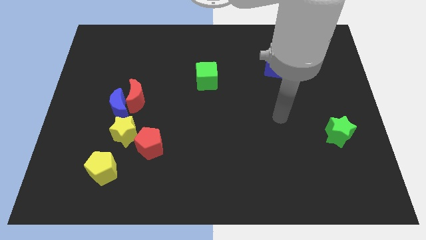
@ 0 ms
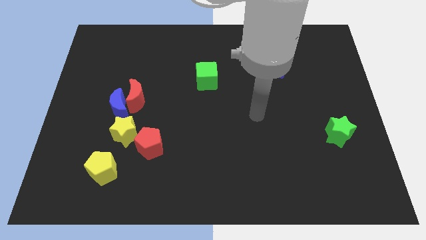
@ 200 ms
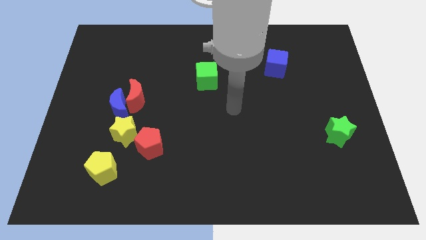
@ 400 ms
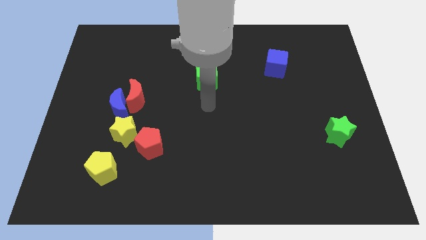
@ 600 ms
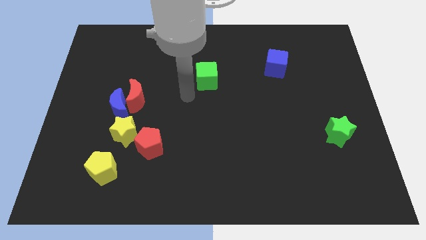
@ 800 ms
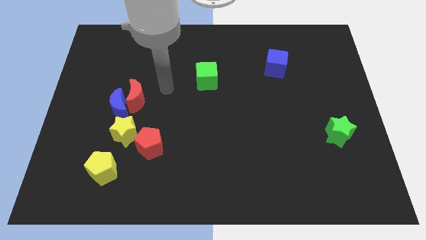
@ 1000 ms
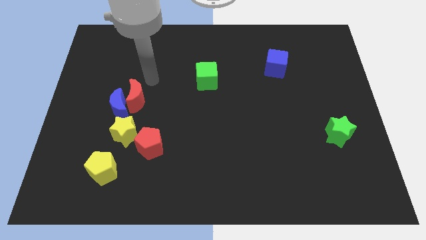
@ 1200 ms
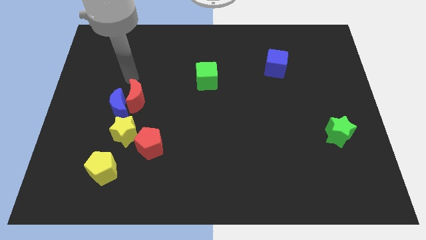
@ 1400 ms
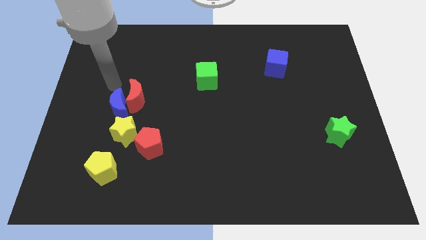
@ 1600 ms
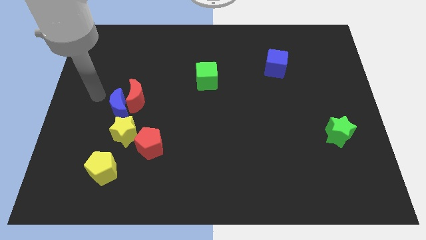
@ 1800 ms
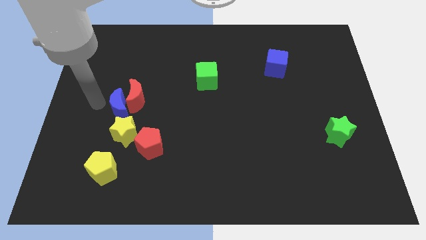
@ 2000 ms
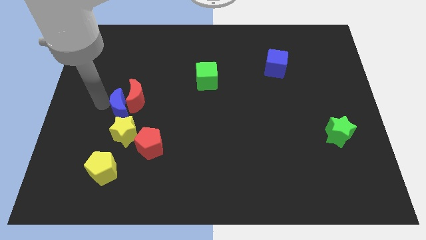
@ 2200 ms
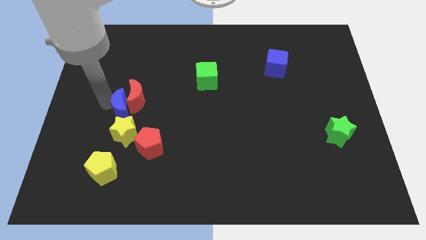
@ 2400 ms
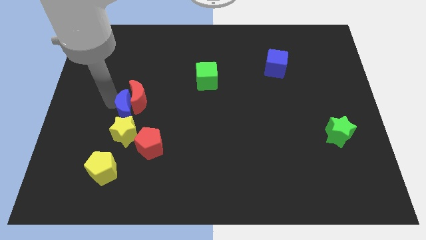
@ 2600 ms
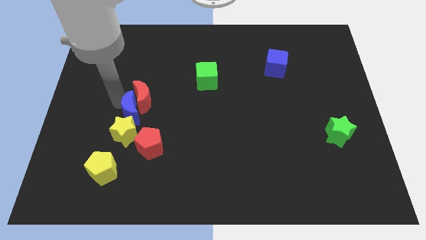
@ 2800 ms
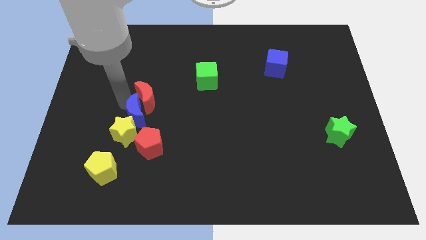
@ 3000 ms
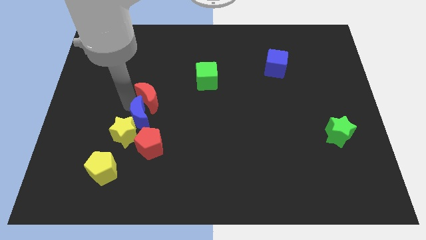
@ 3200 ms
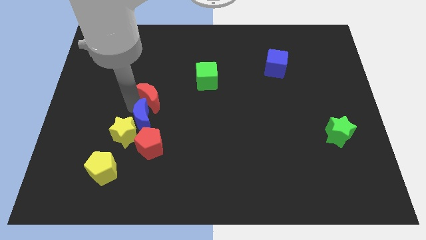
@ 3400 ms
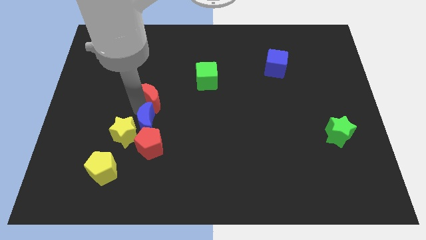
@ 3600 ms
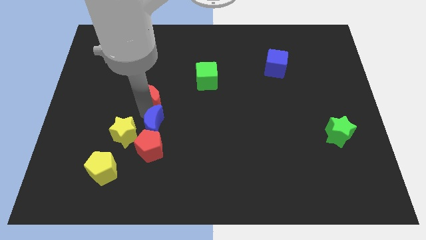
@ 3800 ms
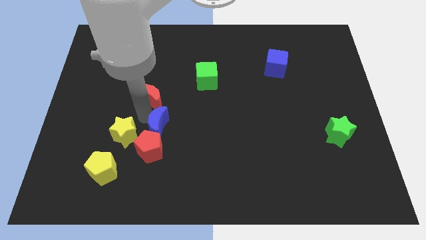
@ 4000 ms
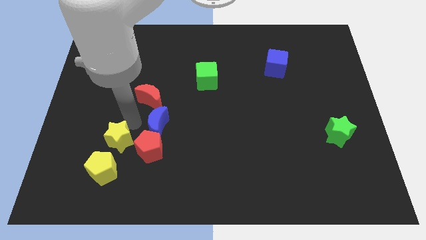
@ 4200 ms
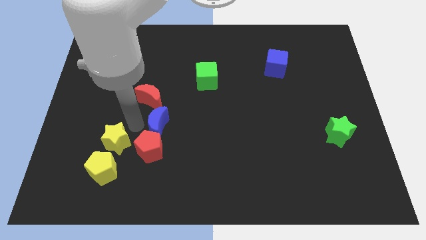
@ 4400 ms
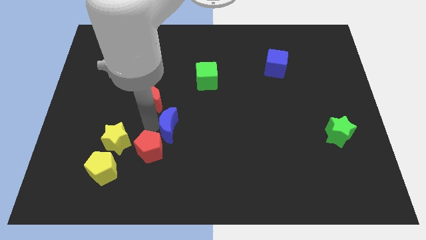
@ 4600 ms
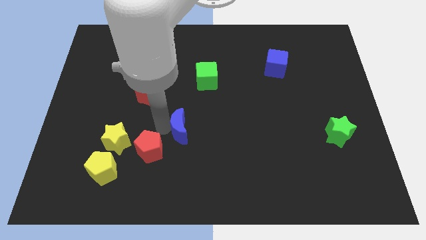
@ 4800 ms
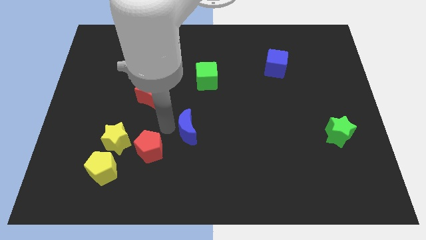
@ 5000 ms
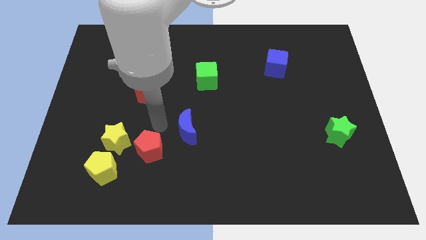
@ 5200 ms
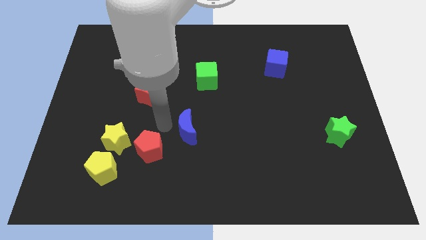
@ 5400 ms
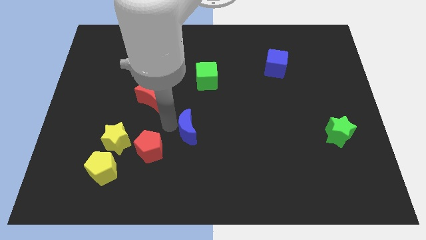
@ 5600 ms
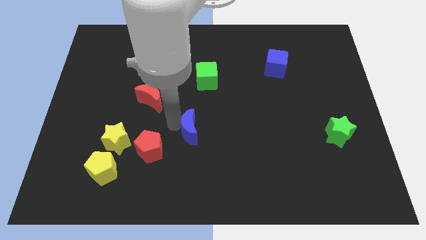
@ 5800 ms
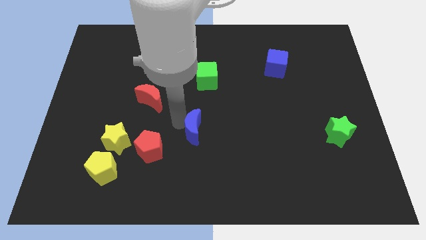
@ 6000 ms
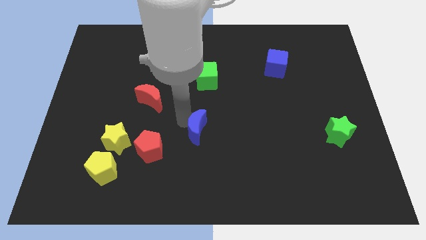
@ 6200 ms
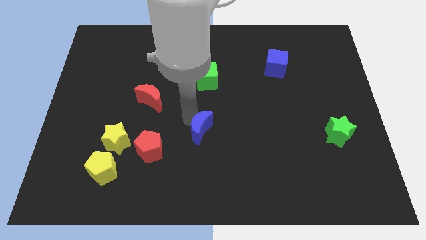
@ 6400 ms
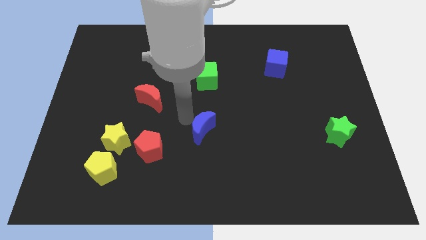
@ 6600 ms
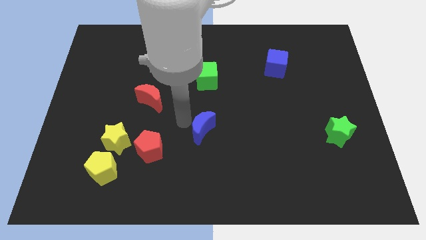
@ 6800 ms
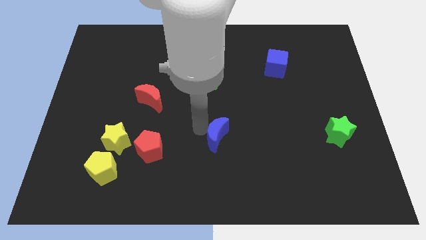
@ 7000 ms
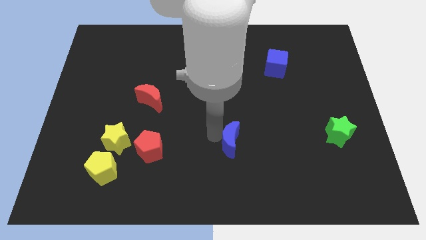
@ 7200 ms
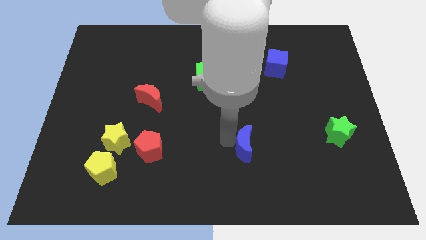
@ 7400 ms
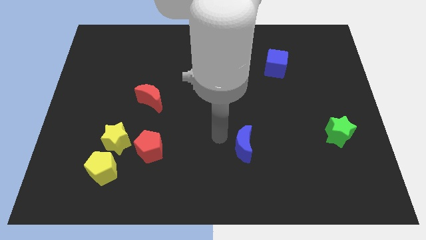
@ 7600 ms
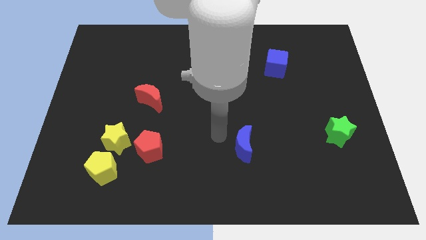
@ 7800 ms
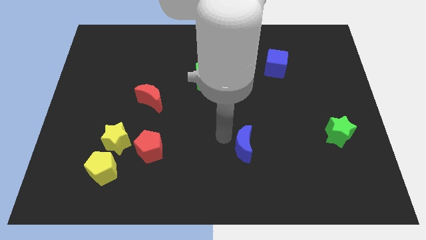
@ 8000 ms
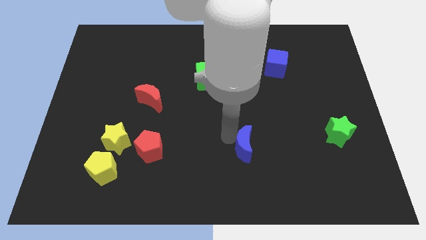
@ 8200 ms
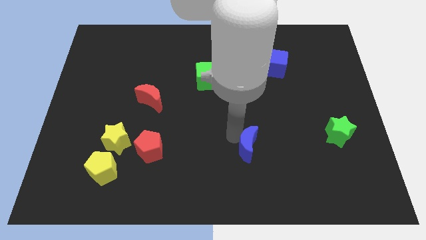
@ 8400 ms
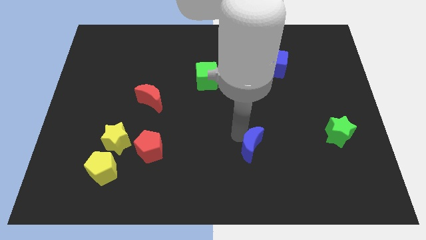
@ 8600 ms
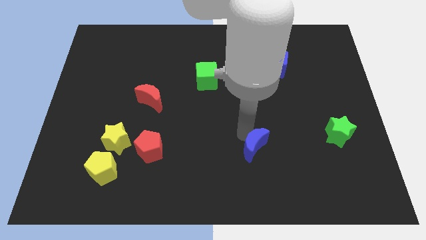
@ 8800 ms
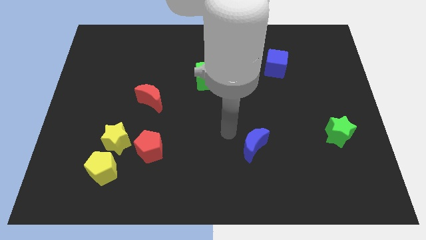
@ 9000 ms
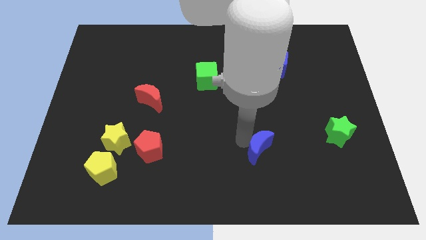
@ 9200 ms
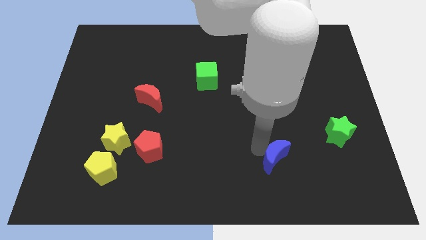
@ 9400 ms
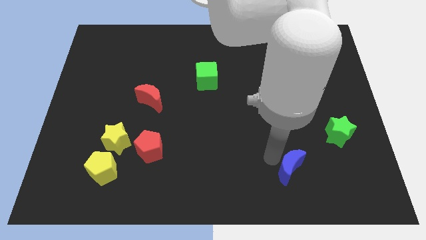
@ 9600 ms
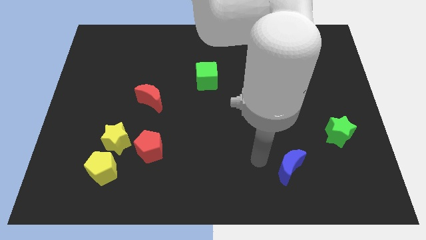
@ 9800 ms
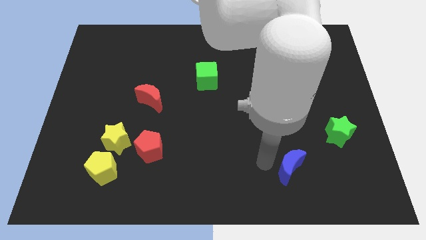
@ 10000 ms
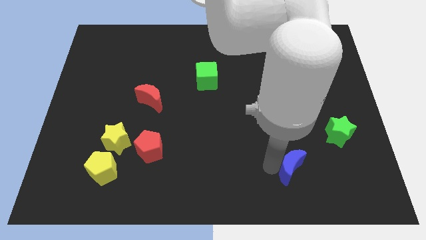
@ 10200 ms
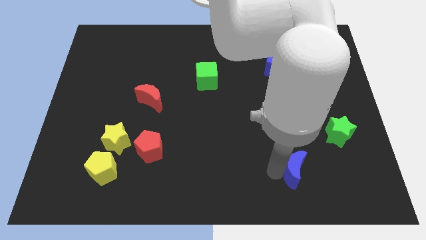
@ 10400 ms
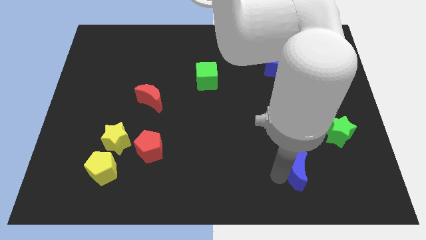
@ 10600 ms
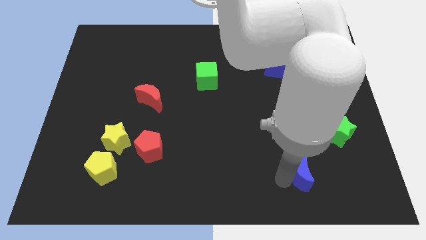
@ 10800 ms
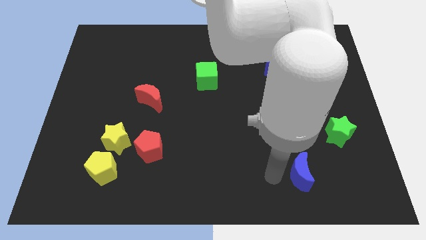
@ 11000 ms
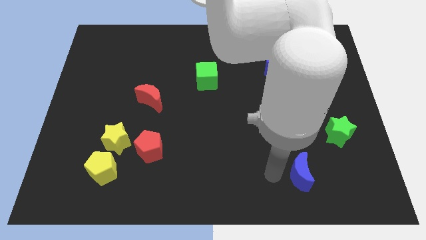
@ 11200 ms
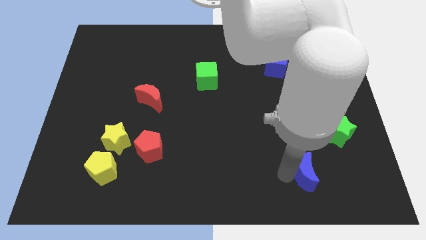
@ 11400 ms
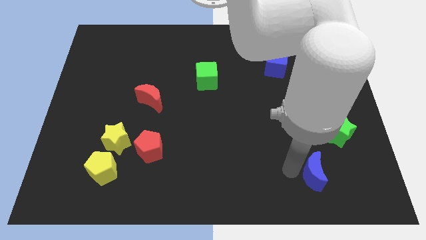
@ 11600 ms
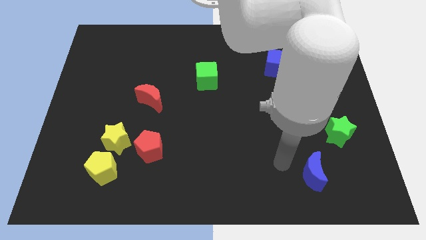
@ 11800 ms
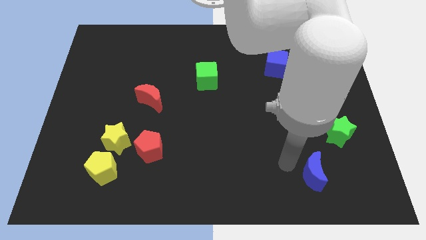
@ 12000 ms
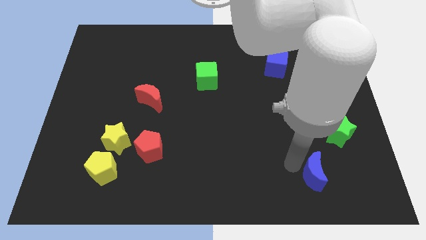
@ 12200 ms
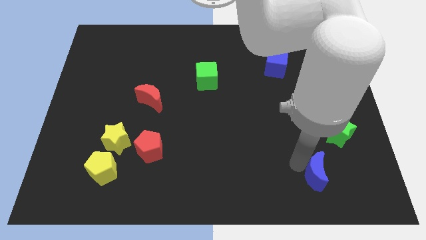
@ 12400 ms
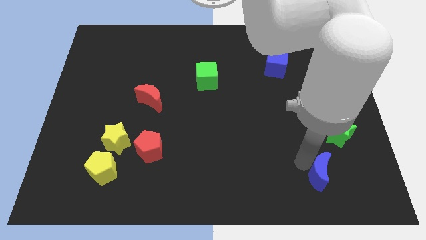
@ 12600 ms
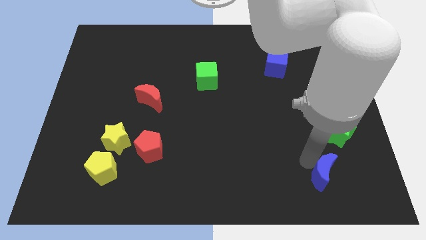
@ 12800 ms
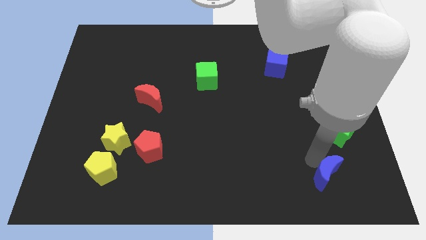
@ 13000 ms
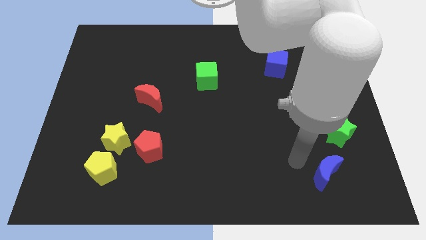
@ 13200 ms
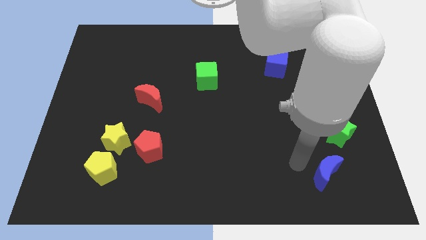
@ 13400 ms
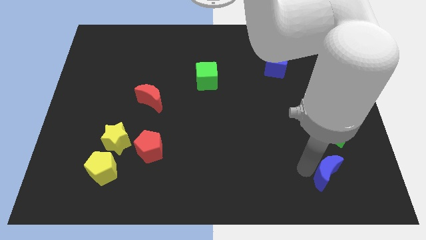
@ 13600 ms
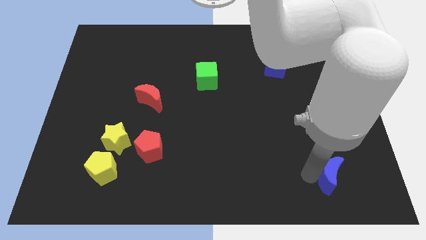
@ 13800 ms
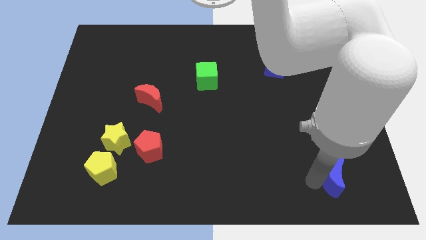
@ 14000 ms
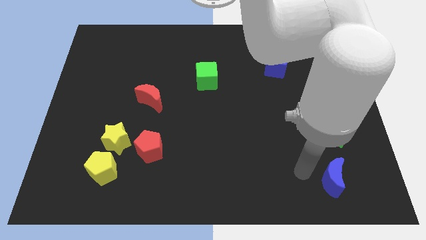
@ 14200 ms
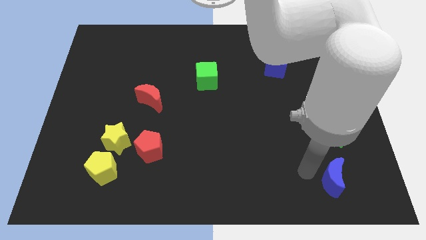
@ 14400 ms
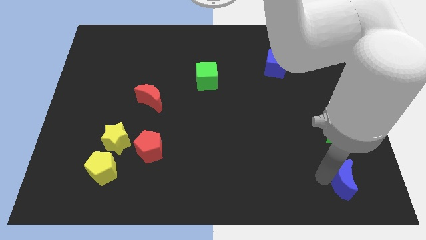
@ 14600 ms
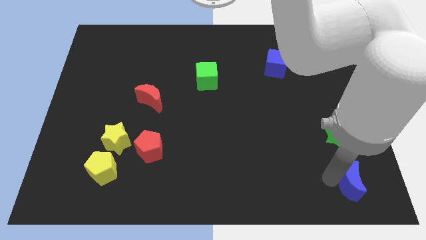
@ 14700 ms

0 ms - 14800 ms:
push the blue moon to the lower right corner
